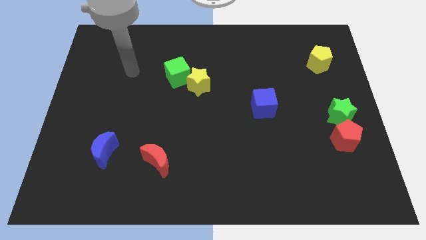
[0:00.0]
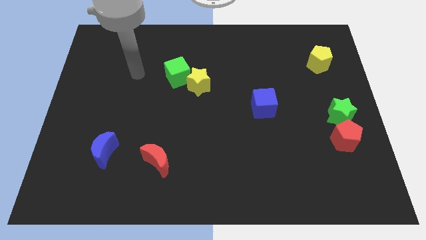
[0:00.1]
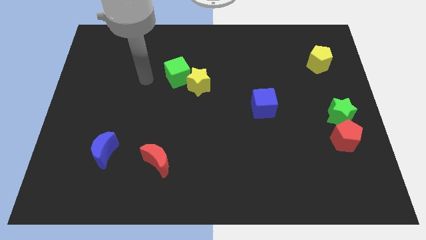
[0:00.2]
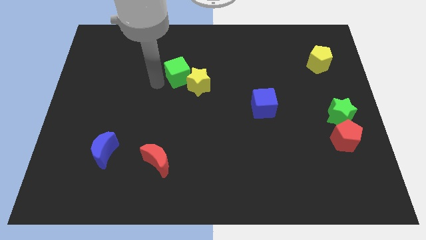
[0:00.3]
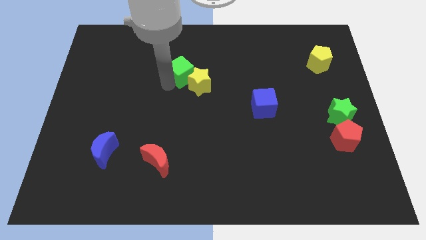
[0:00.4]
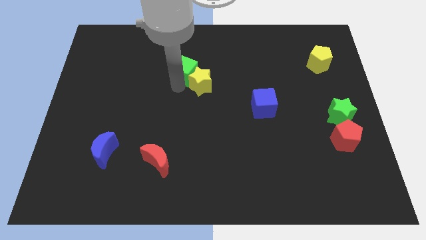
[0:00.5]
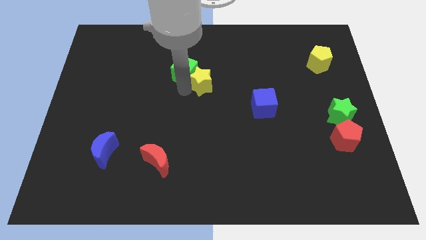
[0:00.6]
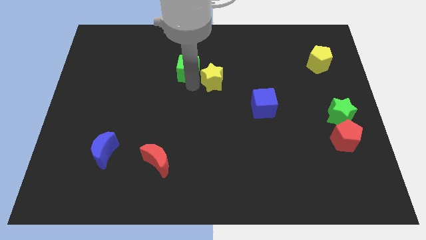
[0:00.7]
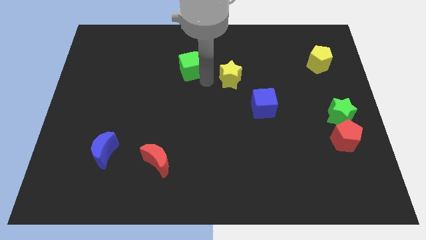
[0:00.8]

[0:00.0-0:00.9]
pull the green cube apart from the yellow star

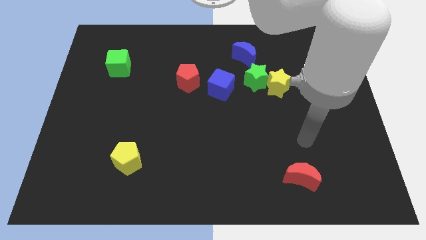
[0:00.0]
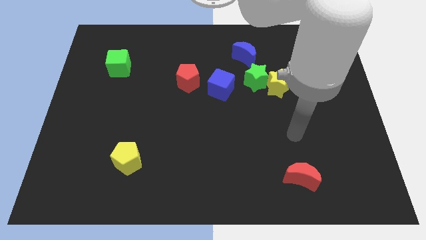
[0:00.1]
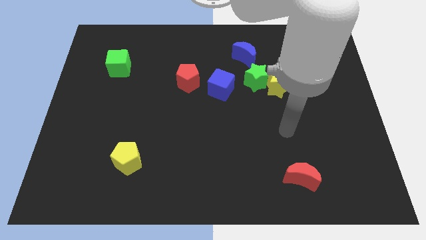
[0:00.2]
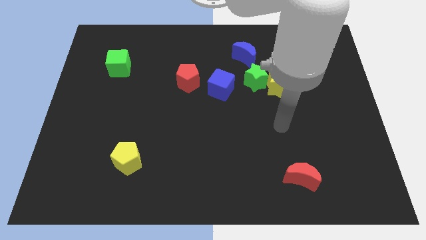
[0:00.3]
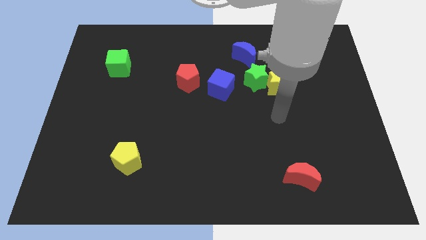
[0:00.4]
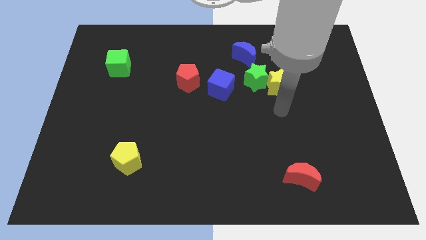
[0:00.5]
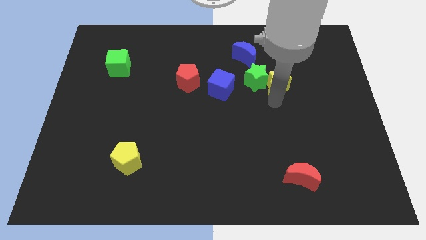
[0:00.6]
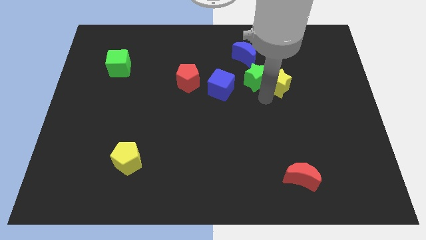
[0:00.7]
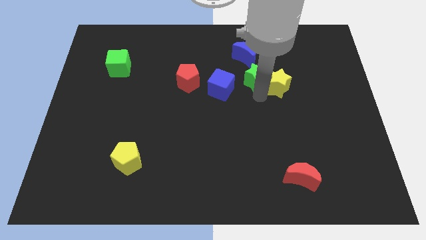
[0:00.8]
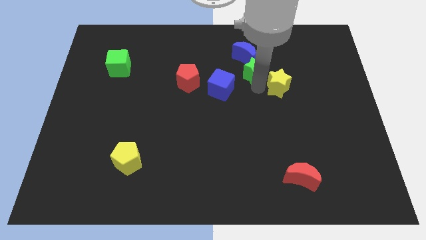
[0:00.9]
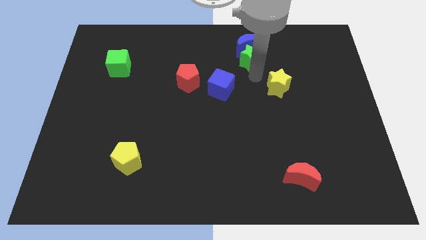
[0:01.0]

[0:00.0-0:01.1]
pull the yellow star apart from the green star

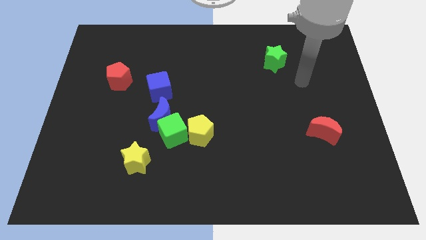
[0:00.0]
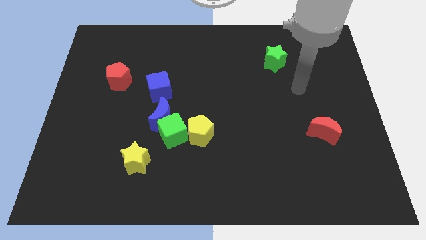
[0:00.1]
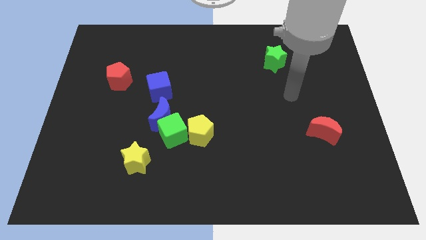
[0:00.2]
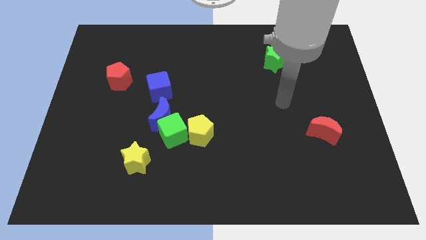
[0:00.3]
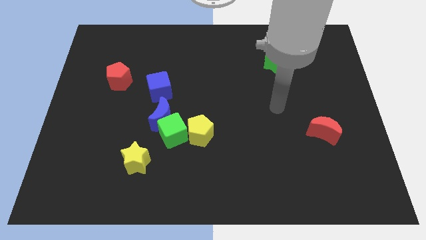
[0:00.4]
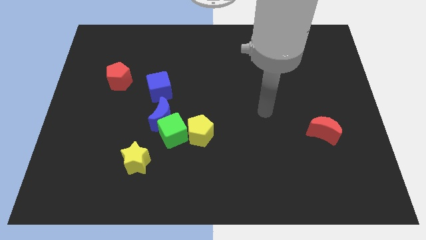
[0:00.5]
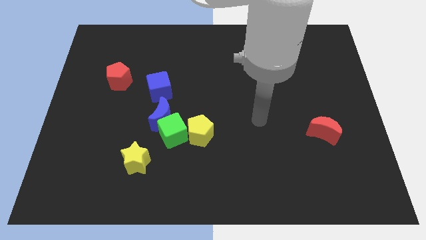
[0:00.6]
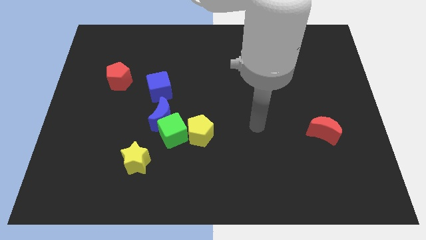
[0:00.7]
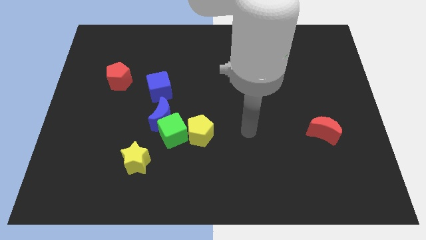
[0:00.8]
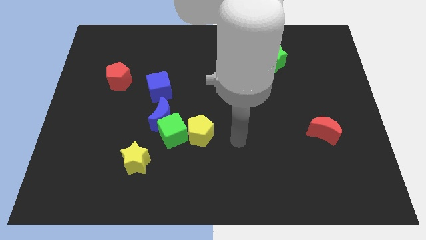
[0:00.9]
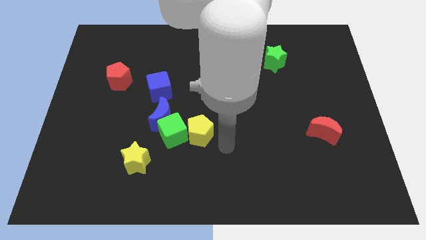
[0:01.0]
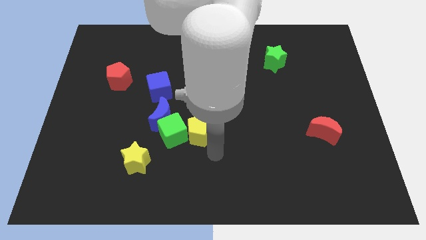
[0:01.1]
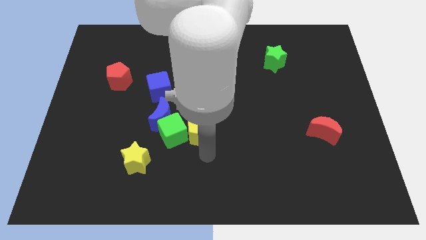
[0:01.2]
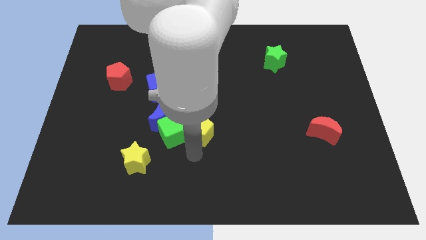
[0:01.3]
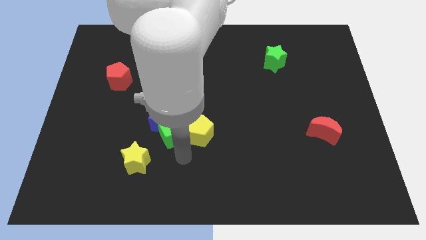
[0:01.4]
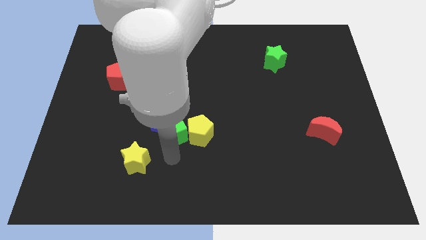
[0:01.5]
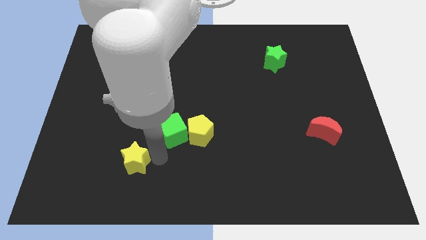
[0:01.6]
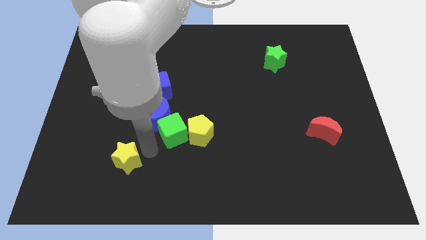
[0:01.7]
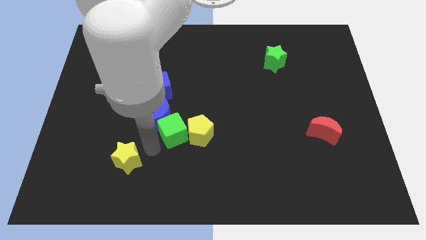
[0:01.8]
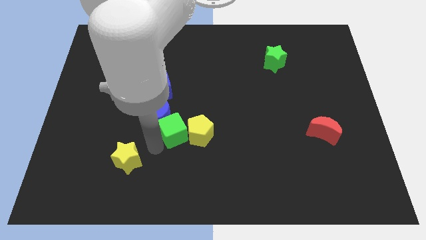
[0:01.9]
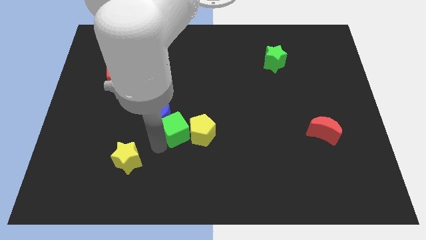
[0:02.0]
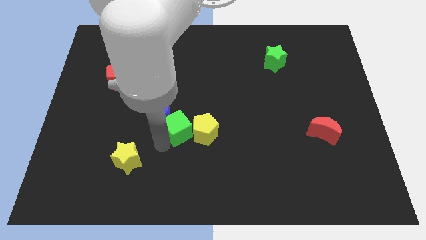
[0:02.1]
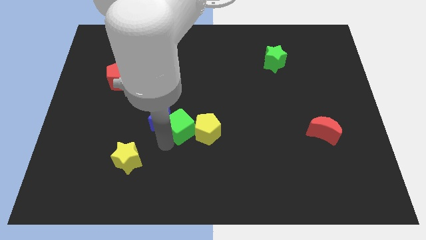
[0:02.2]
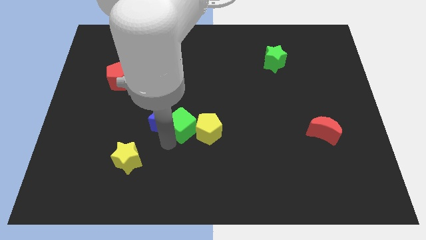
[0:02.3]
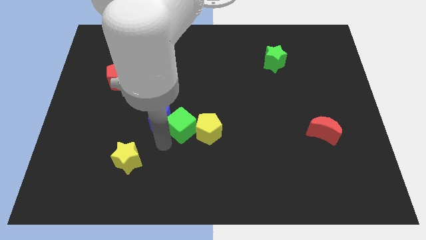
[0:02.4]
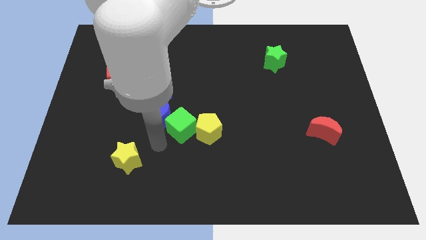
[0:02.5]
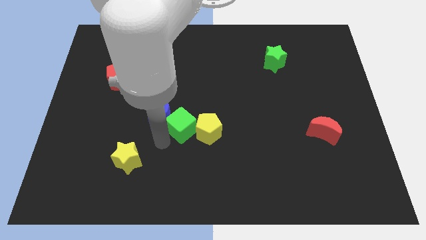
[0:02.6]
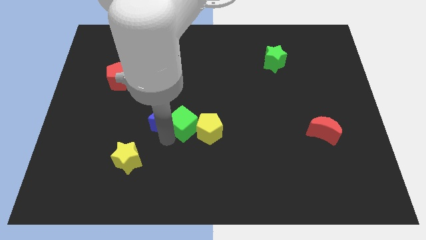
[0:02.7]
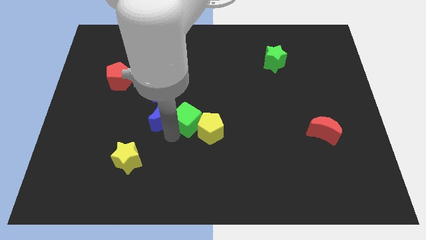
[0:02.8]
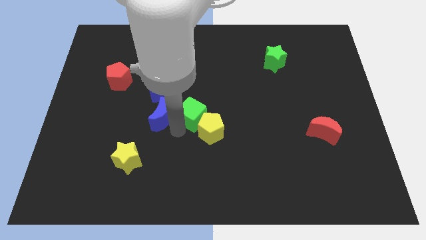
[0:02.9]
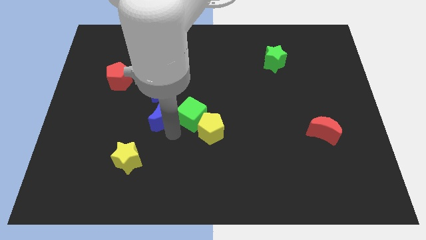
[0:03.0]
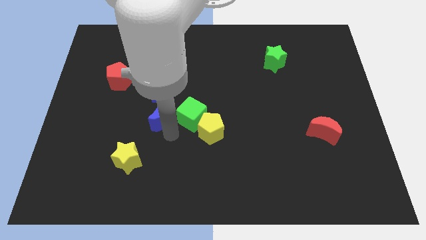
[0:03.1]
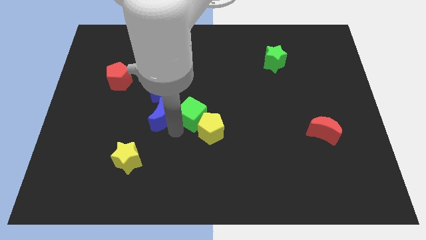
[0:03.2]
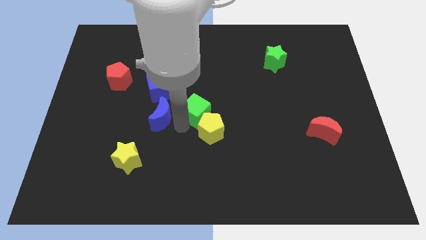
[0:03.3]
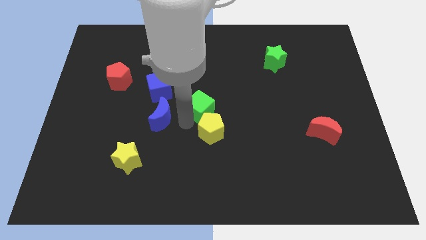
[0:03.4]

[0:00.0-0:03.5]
move the green cube away from the blue moon, yellow pentagon, and yellow star

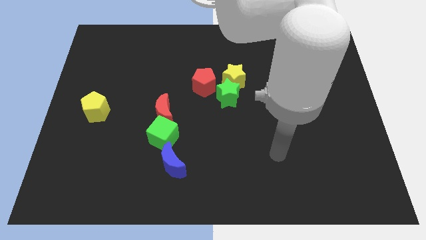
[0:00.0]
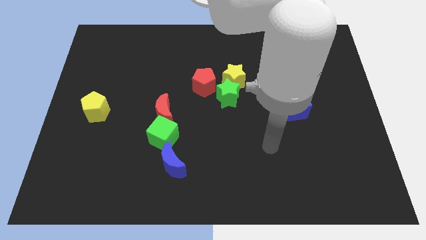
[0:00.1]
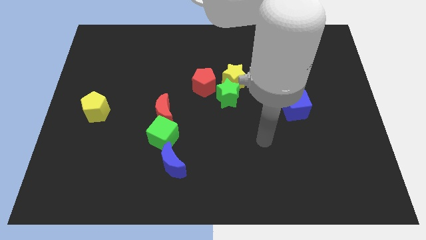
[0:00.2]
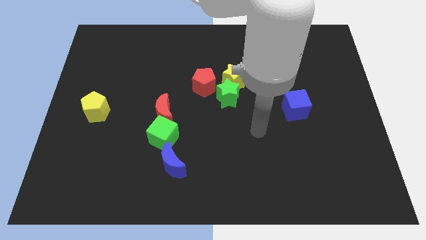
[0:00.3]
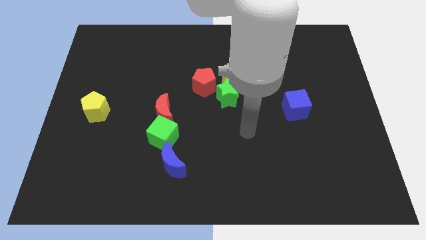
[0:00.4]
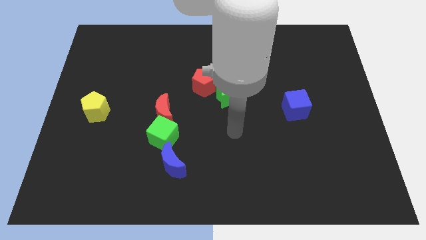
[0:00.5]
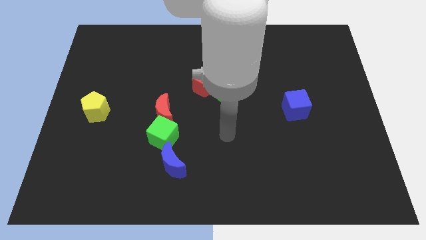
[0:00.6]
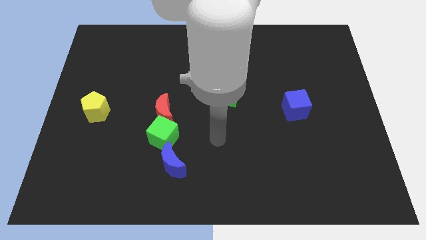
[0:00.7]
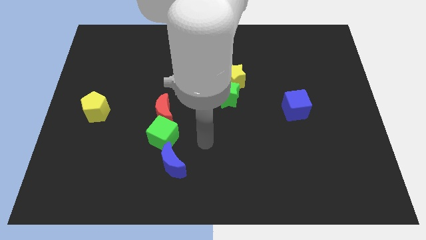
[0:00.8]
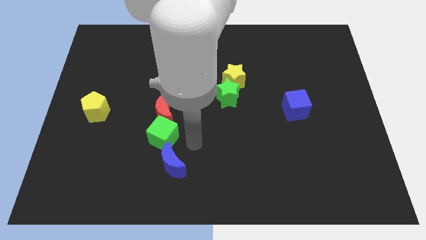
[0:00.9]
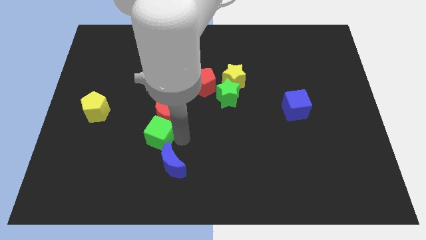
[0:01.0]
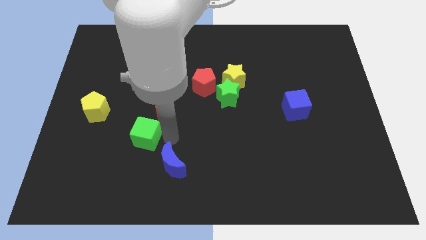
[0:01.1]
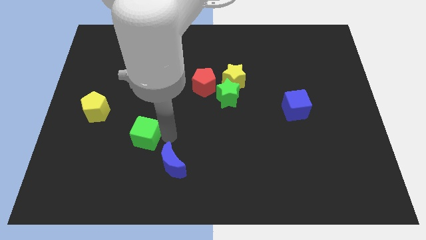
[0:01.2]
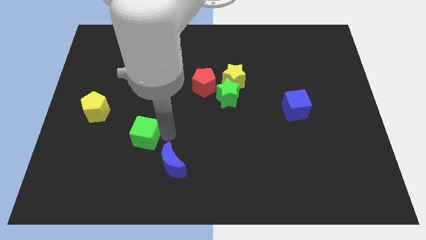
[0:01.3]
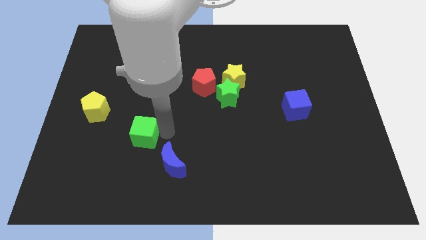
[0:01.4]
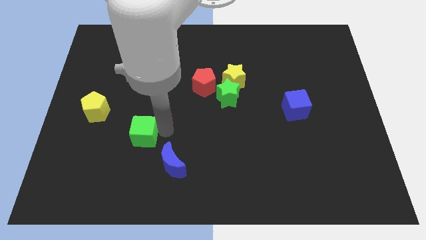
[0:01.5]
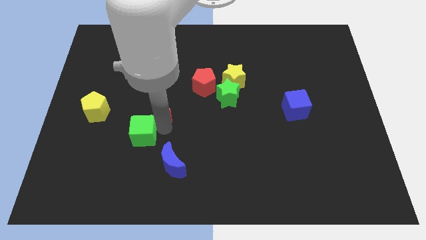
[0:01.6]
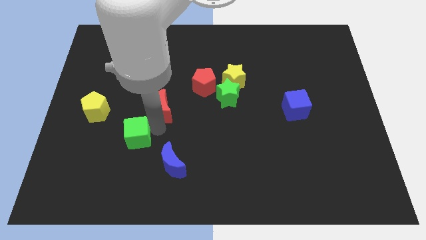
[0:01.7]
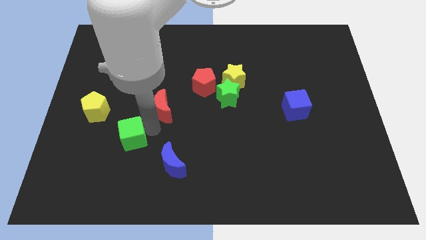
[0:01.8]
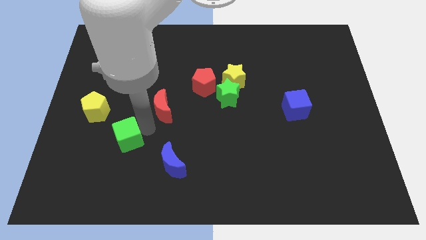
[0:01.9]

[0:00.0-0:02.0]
pull the red moon apart from the green cube

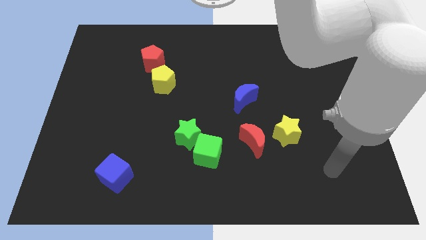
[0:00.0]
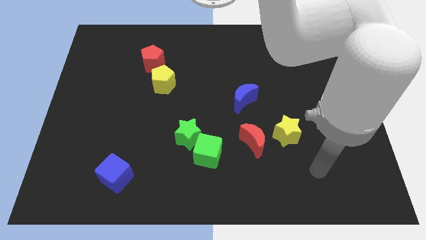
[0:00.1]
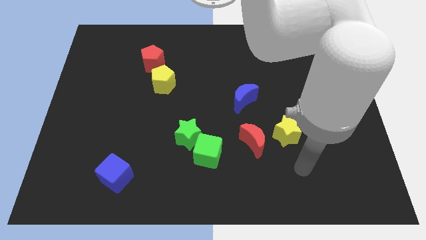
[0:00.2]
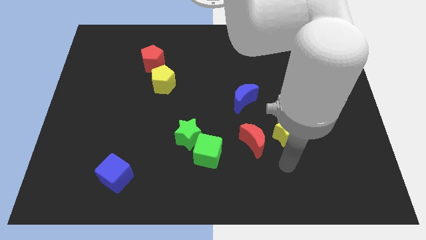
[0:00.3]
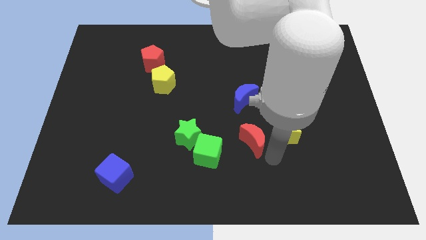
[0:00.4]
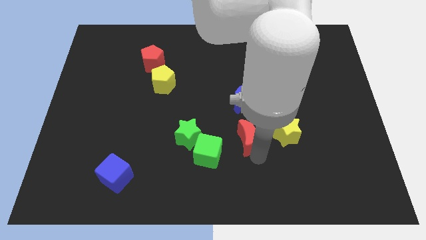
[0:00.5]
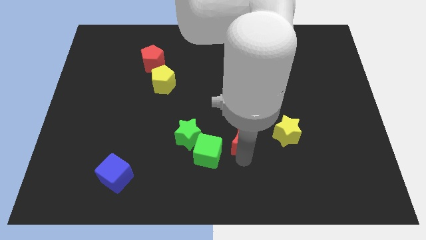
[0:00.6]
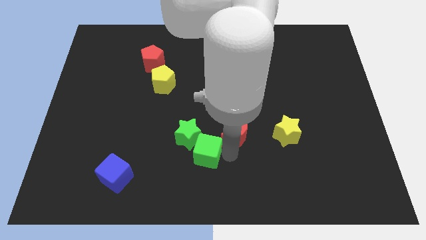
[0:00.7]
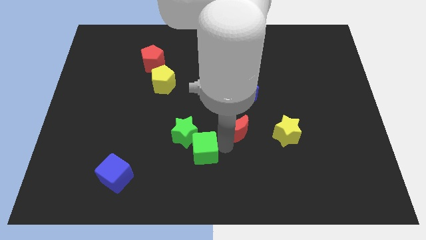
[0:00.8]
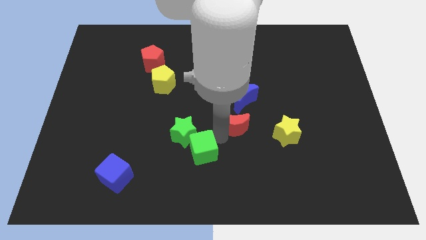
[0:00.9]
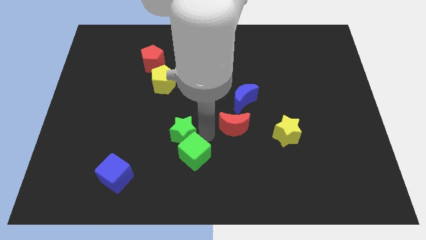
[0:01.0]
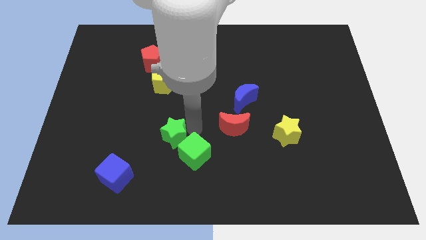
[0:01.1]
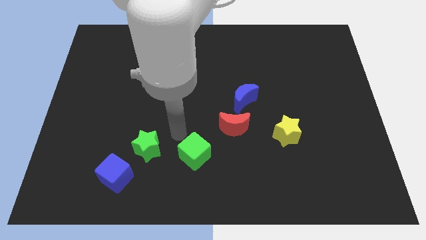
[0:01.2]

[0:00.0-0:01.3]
move the green cube away from the green star

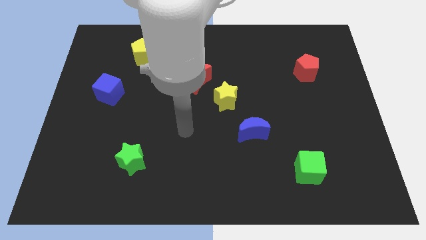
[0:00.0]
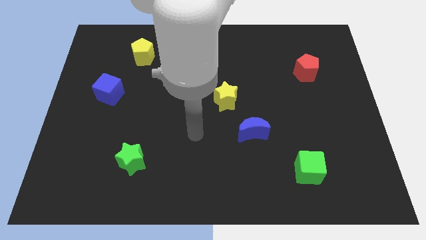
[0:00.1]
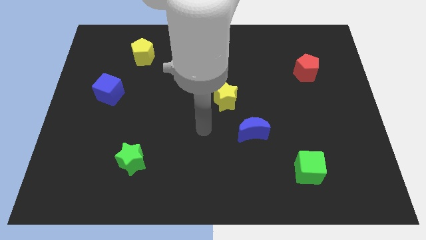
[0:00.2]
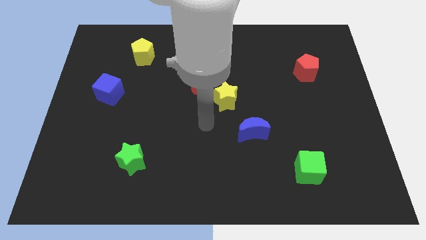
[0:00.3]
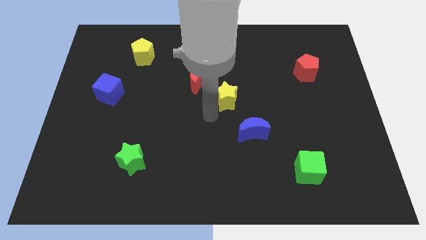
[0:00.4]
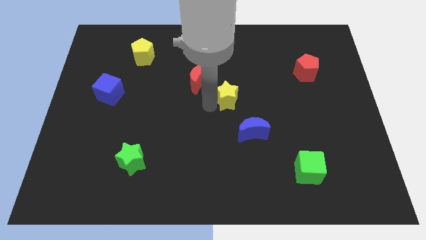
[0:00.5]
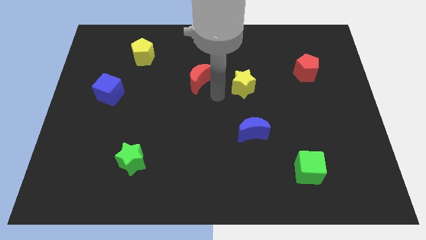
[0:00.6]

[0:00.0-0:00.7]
pull the red moon apart from the yellow star
